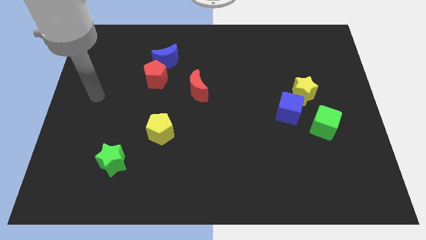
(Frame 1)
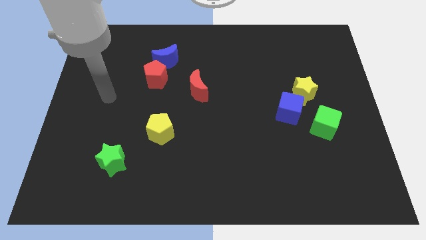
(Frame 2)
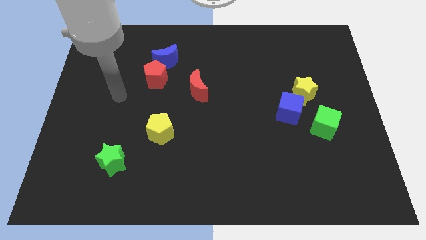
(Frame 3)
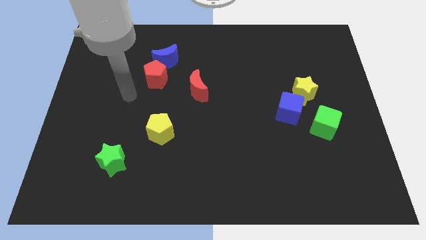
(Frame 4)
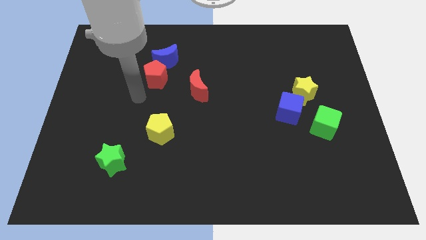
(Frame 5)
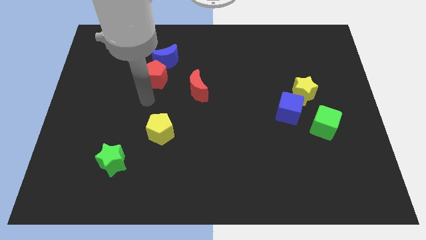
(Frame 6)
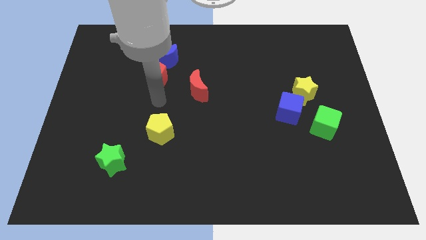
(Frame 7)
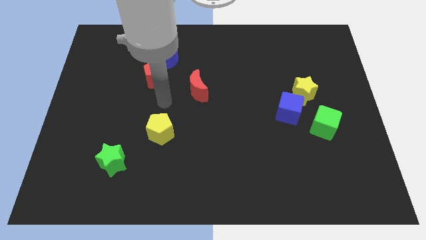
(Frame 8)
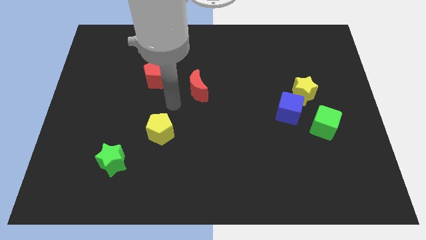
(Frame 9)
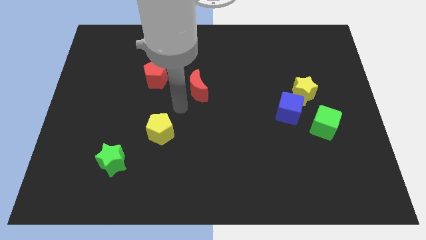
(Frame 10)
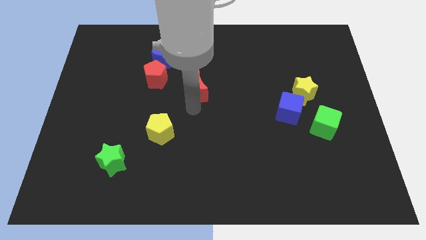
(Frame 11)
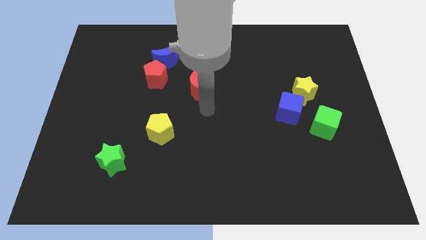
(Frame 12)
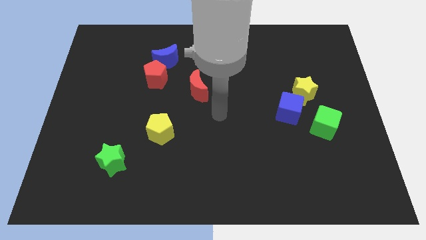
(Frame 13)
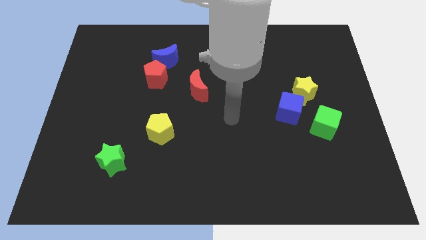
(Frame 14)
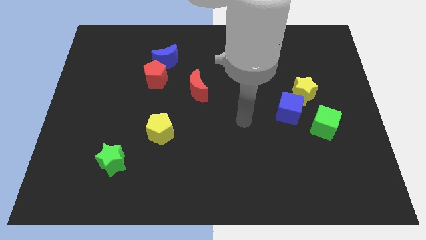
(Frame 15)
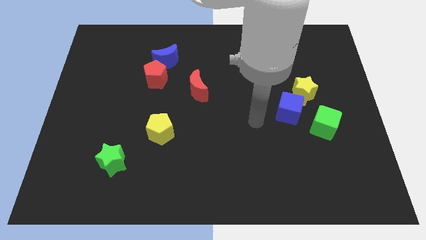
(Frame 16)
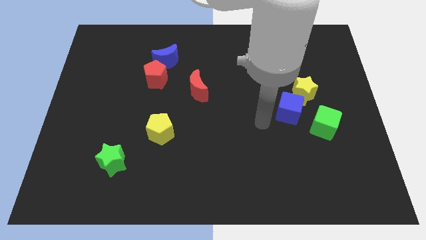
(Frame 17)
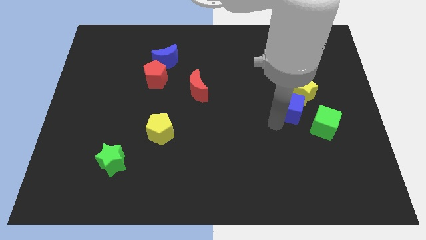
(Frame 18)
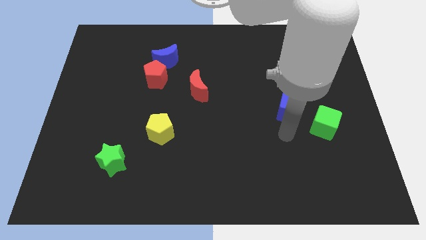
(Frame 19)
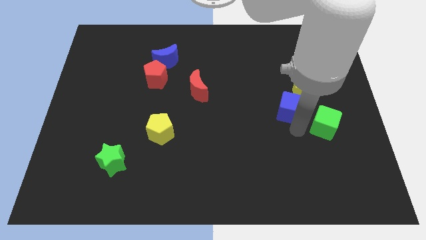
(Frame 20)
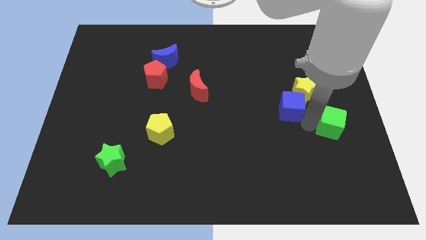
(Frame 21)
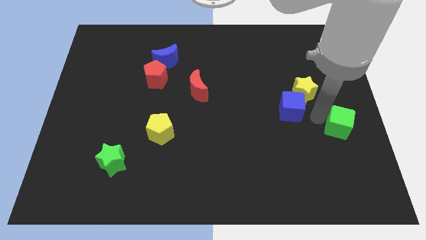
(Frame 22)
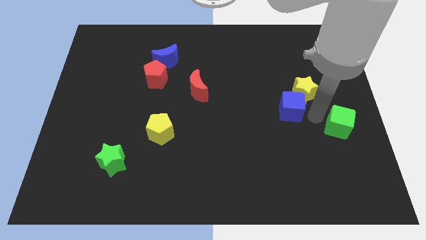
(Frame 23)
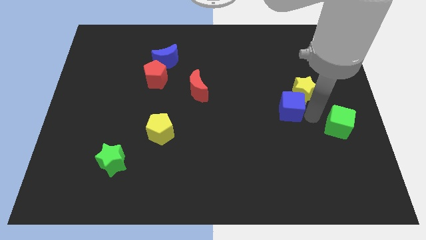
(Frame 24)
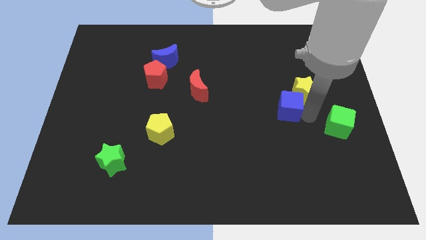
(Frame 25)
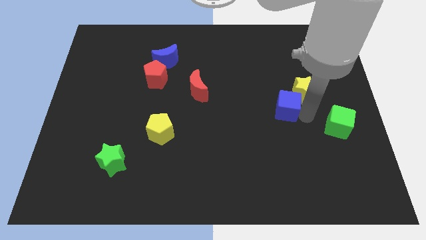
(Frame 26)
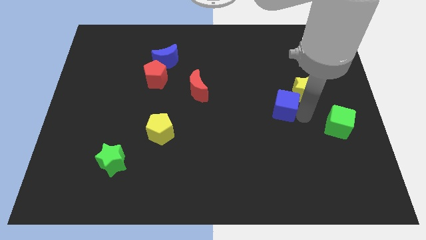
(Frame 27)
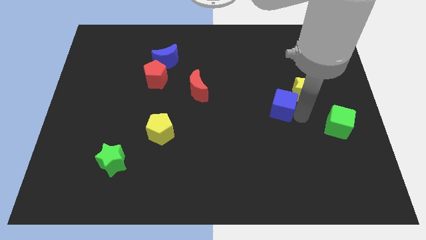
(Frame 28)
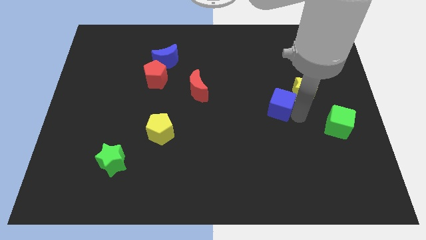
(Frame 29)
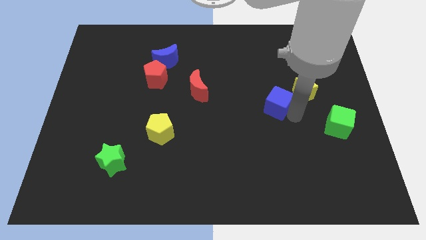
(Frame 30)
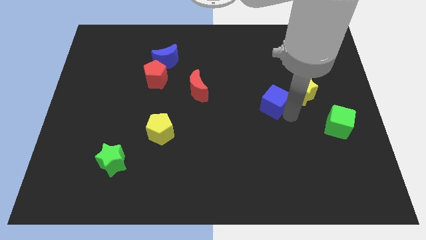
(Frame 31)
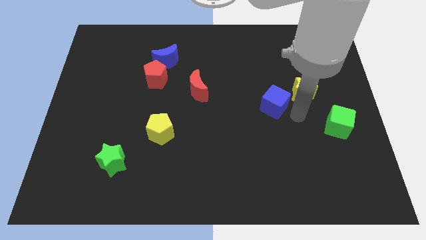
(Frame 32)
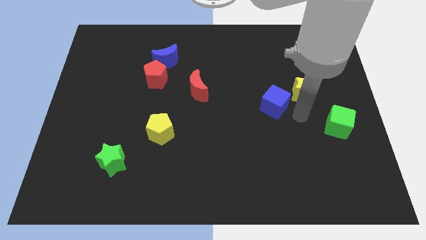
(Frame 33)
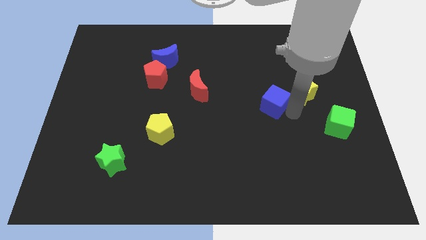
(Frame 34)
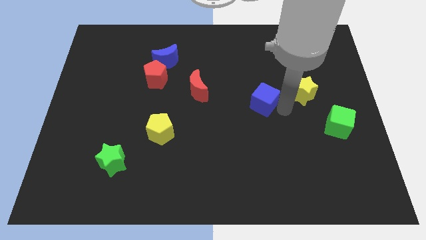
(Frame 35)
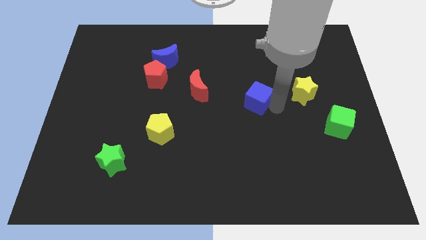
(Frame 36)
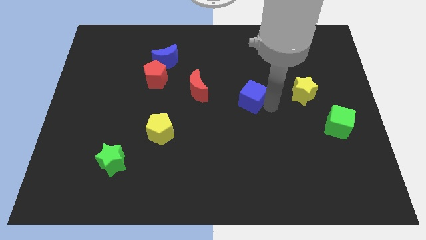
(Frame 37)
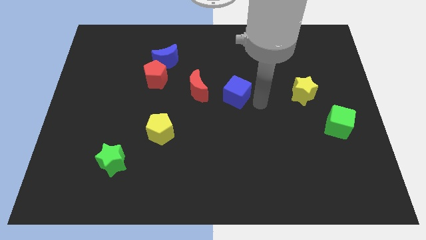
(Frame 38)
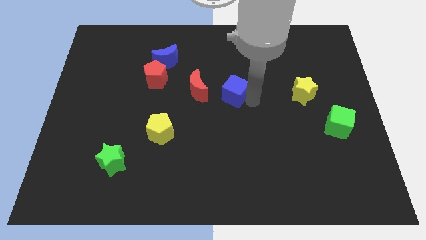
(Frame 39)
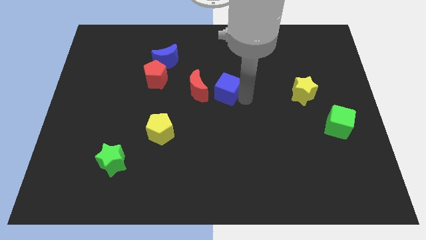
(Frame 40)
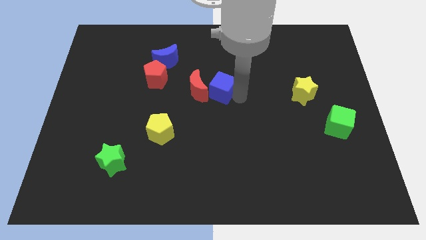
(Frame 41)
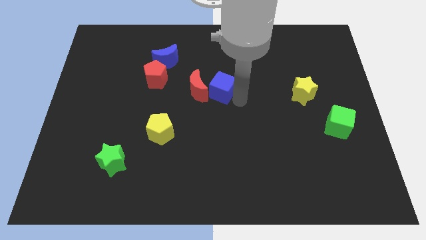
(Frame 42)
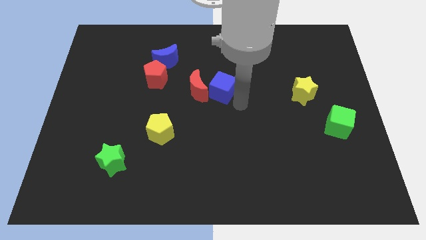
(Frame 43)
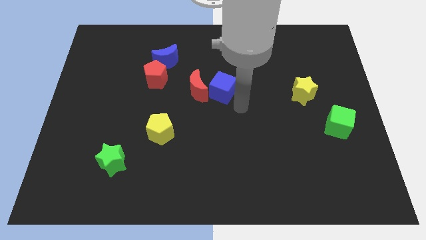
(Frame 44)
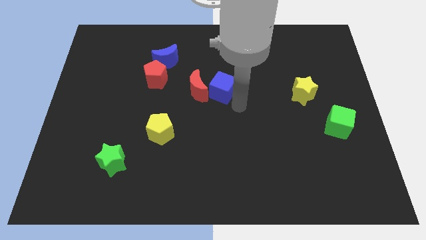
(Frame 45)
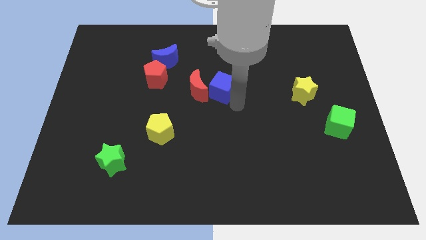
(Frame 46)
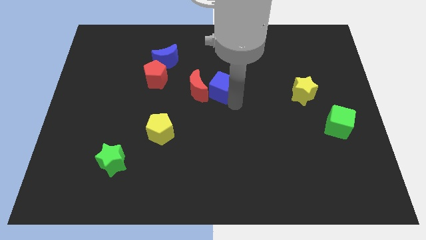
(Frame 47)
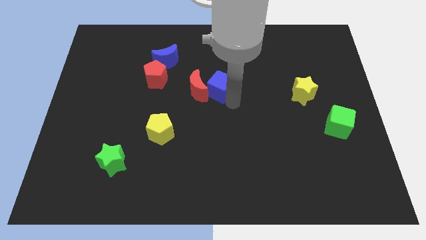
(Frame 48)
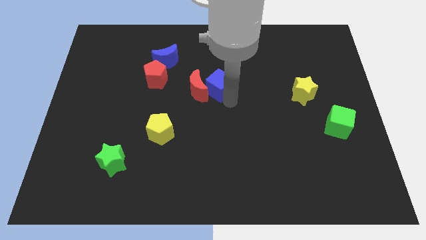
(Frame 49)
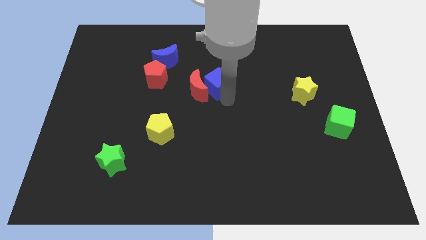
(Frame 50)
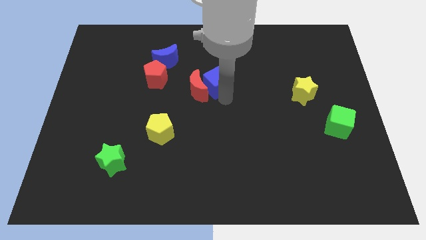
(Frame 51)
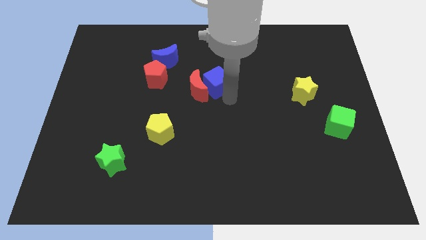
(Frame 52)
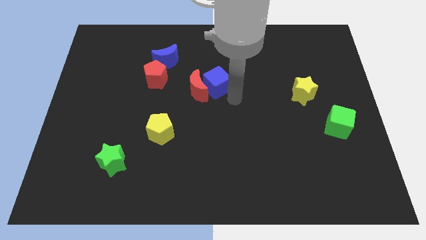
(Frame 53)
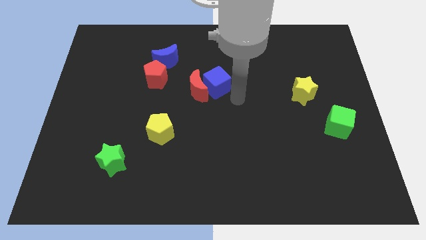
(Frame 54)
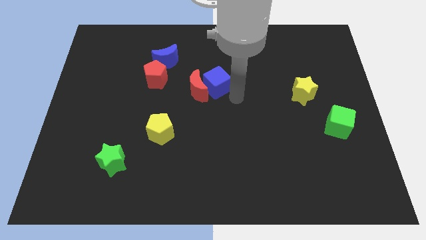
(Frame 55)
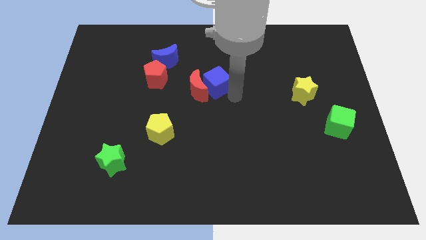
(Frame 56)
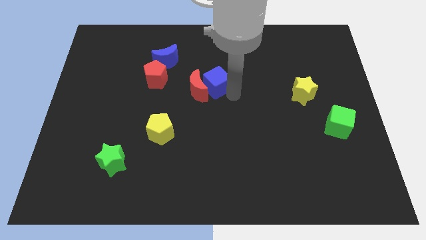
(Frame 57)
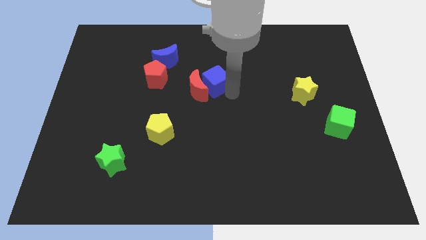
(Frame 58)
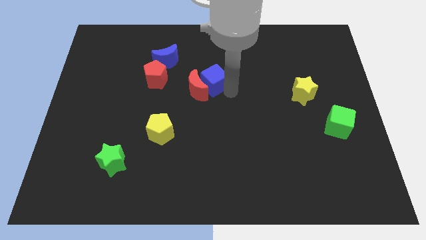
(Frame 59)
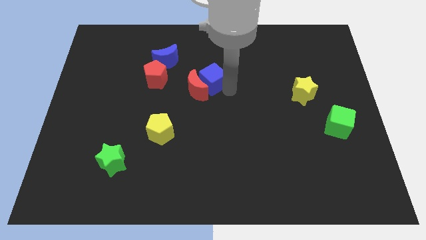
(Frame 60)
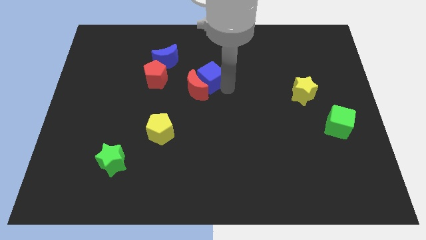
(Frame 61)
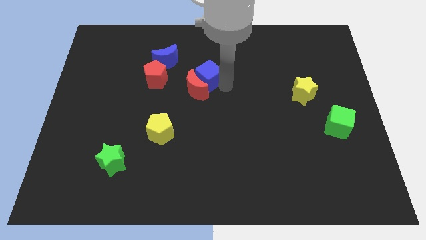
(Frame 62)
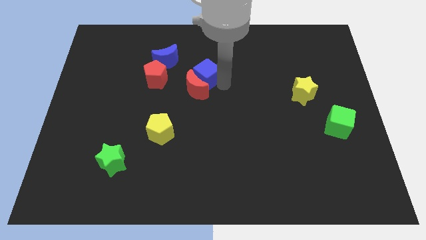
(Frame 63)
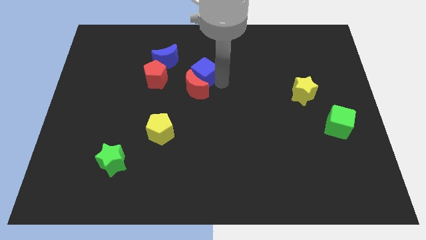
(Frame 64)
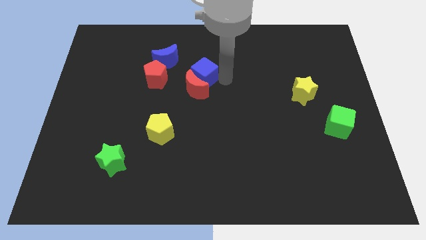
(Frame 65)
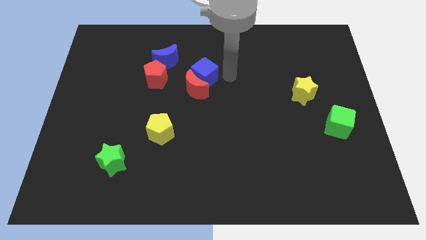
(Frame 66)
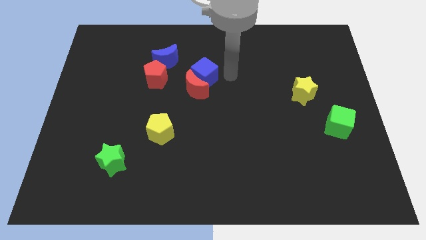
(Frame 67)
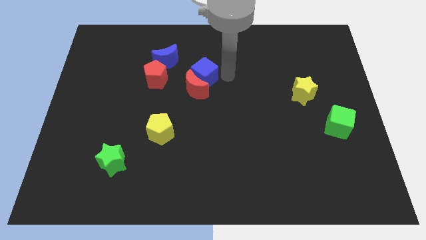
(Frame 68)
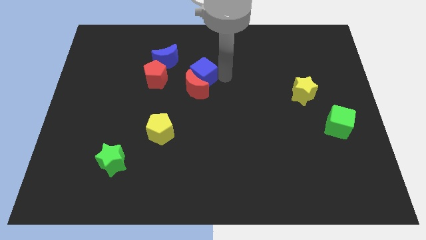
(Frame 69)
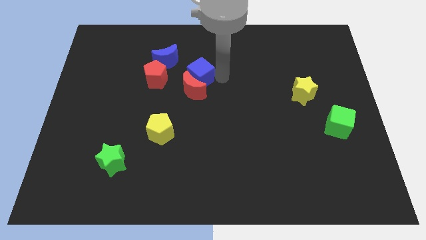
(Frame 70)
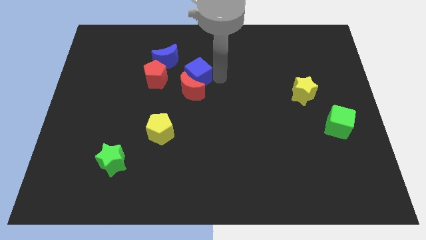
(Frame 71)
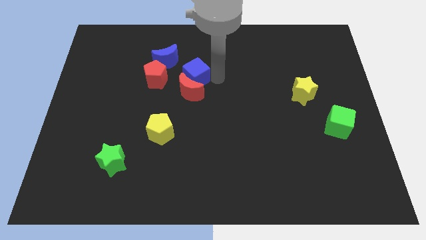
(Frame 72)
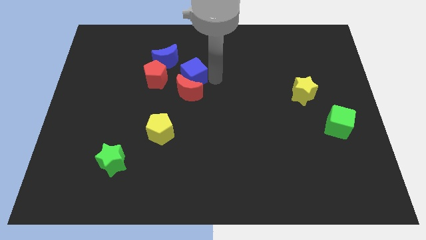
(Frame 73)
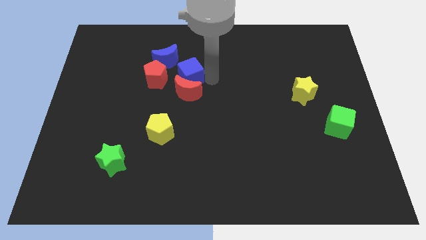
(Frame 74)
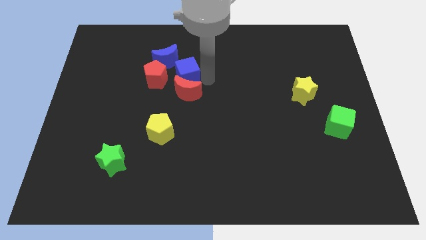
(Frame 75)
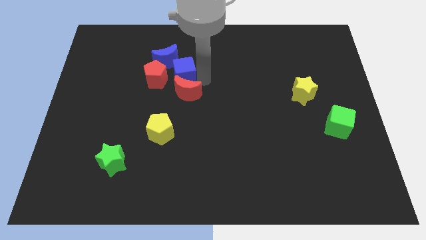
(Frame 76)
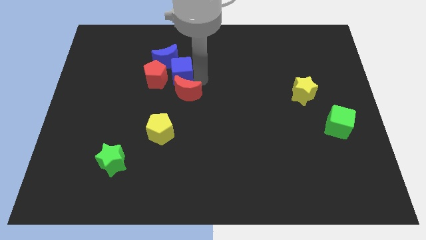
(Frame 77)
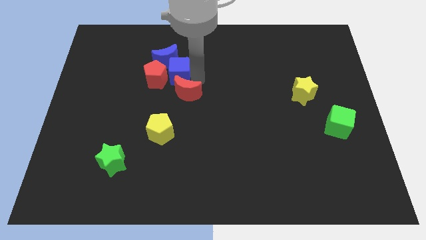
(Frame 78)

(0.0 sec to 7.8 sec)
move the blue cube towards the red pentagon

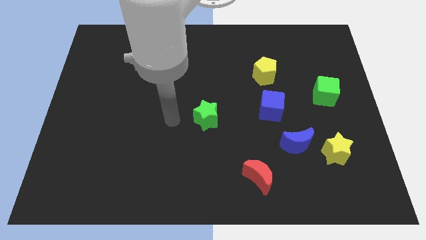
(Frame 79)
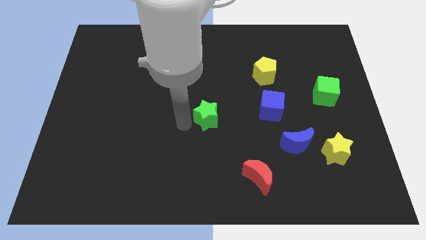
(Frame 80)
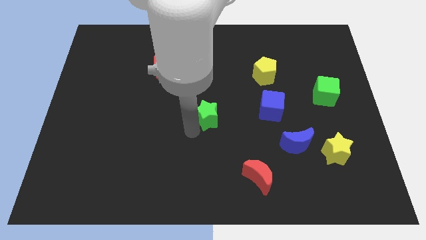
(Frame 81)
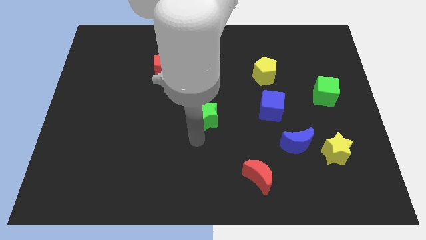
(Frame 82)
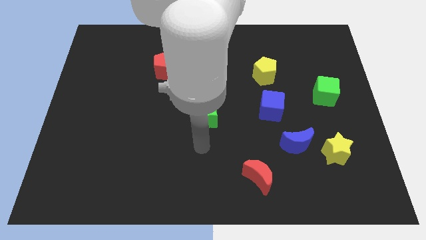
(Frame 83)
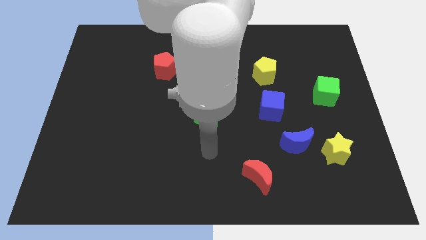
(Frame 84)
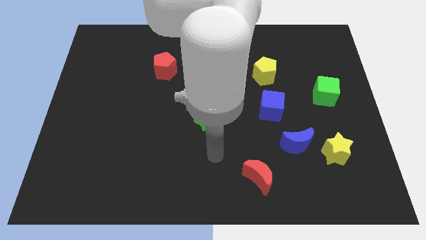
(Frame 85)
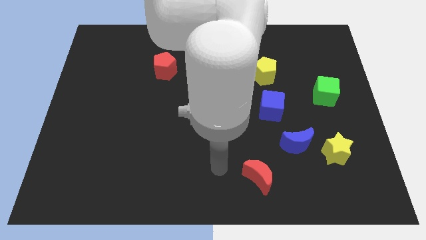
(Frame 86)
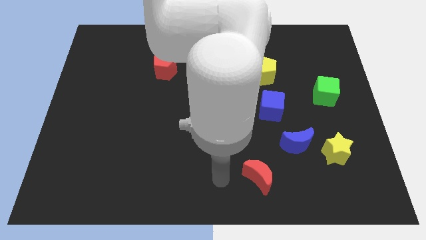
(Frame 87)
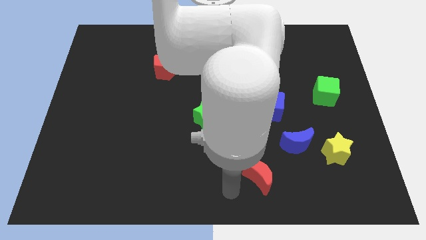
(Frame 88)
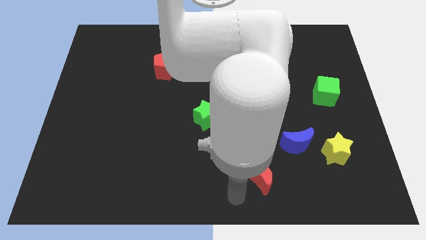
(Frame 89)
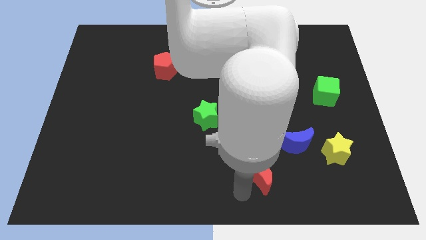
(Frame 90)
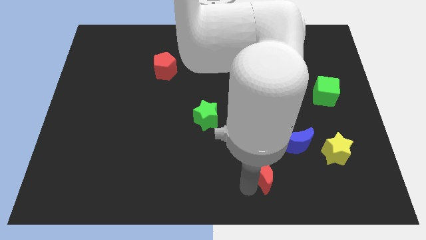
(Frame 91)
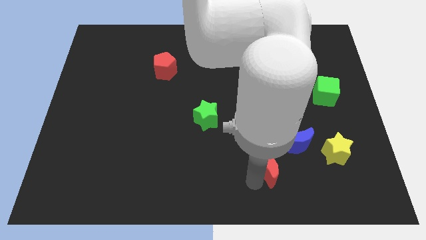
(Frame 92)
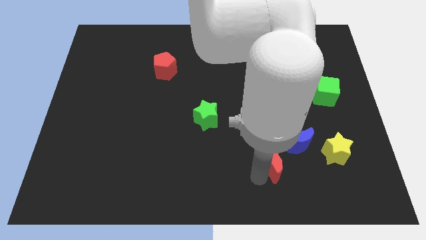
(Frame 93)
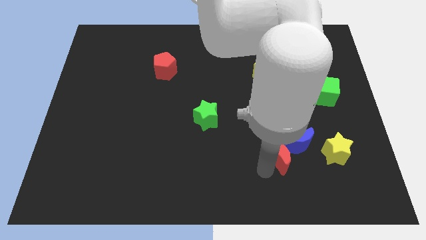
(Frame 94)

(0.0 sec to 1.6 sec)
move the red moon towards the blue moon
